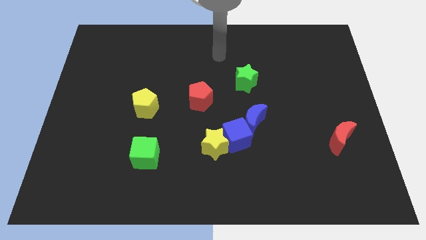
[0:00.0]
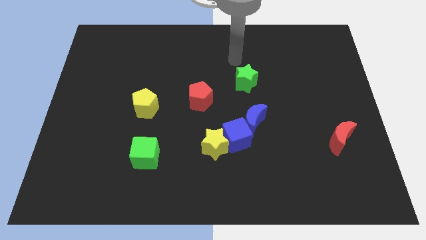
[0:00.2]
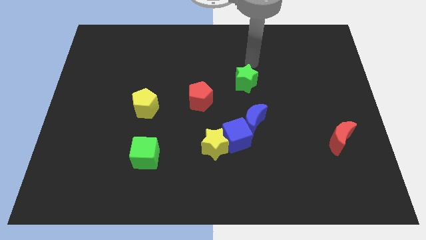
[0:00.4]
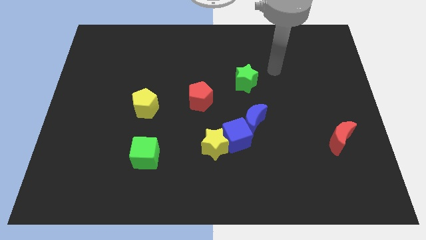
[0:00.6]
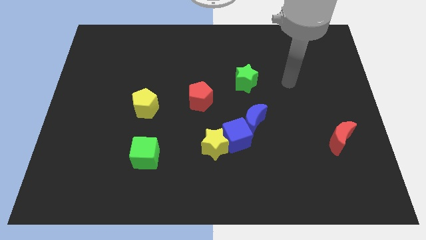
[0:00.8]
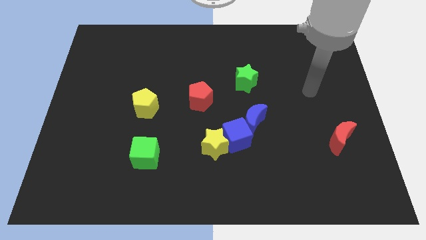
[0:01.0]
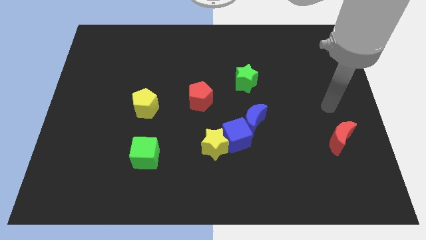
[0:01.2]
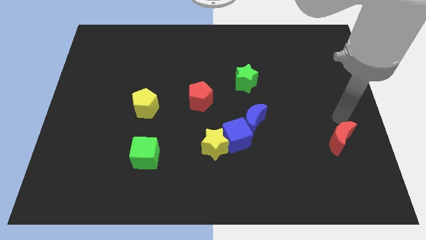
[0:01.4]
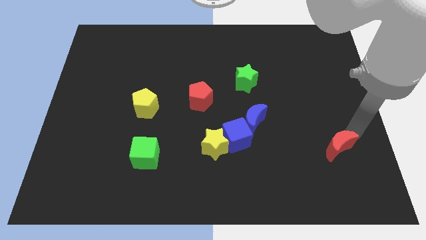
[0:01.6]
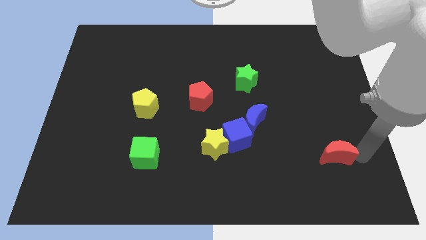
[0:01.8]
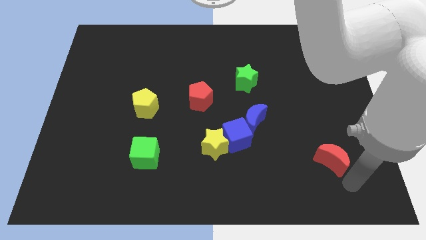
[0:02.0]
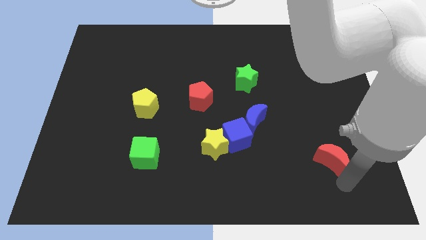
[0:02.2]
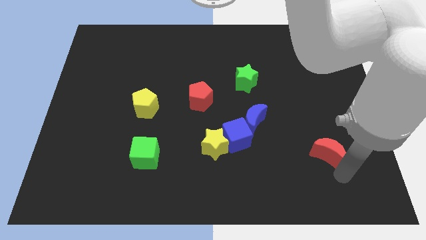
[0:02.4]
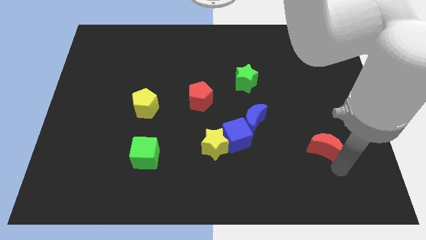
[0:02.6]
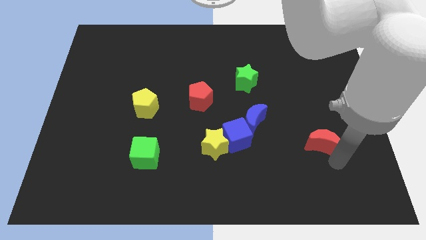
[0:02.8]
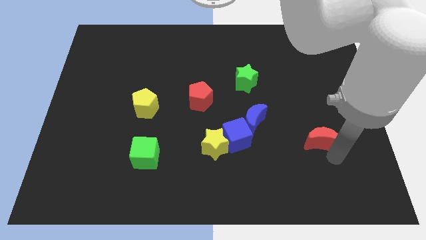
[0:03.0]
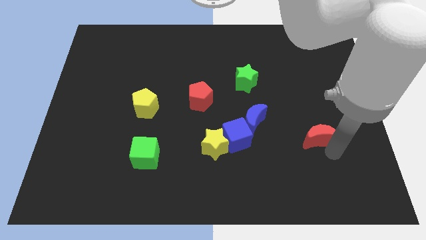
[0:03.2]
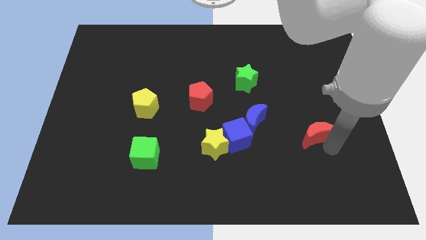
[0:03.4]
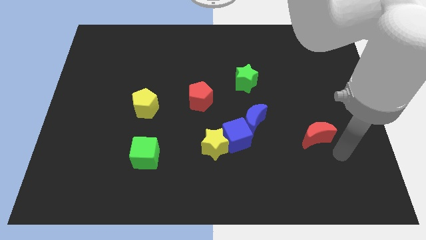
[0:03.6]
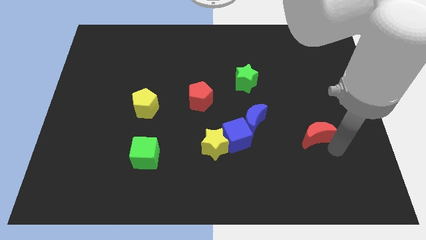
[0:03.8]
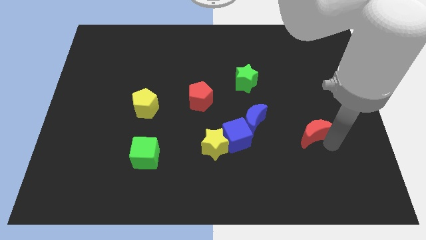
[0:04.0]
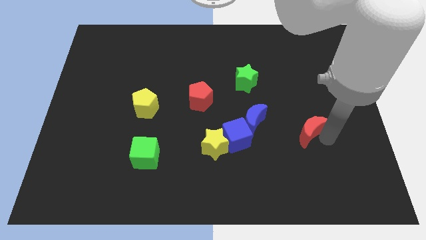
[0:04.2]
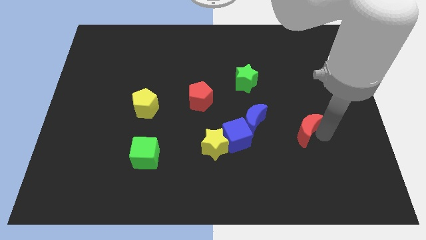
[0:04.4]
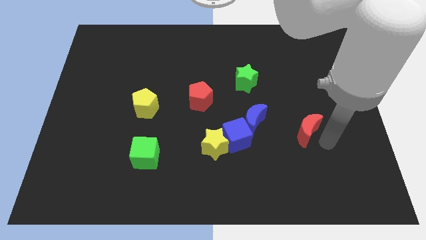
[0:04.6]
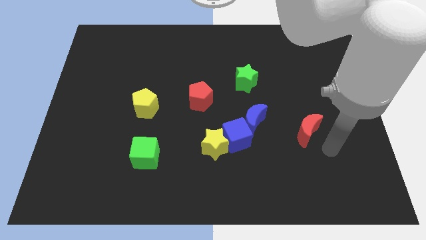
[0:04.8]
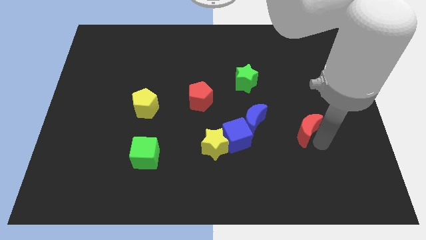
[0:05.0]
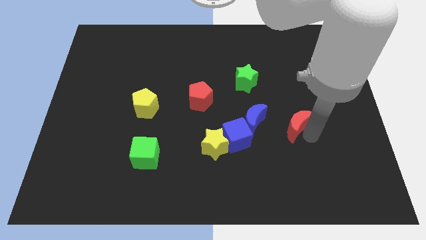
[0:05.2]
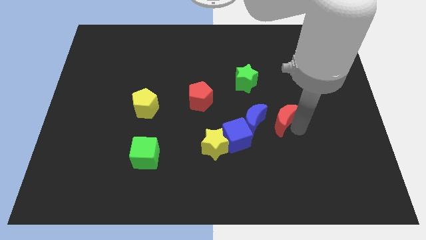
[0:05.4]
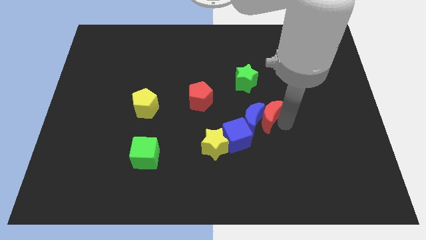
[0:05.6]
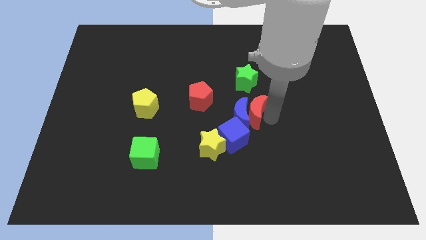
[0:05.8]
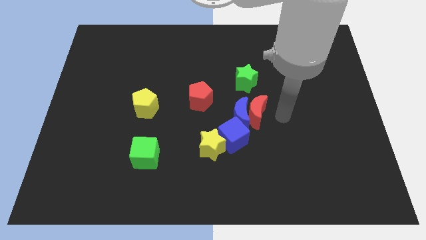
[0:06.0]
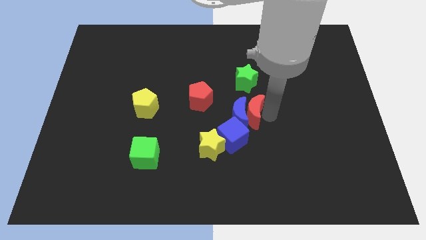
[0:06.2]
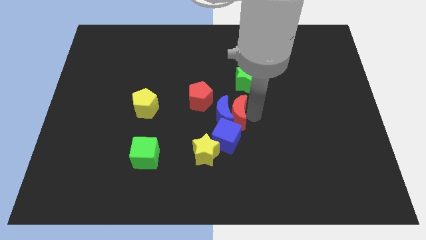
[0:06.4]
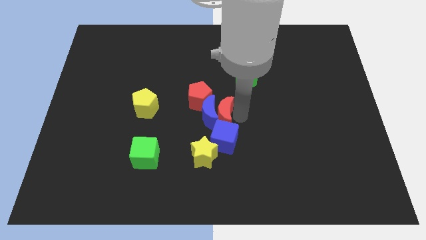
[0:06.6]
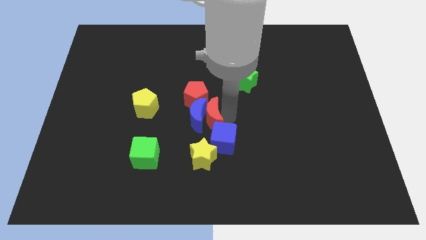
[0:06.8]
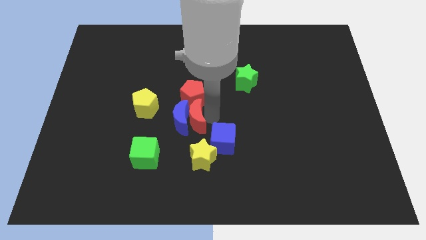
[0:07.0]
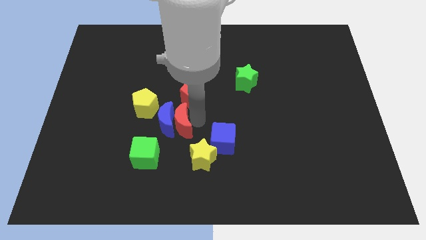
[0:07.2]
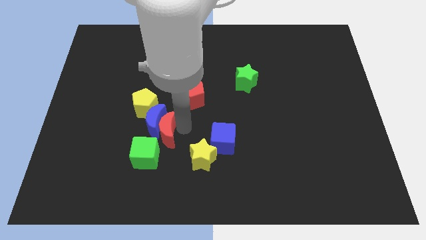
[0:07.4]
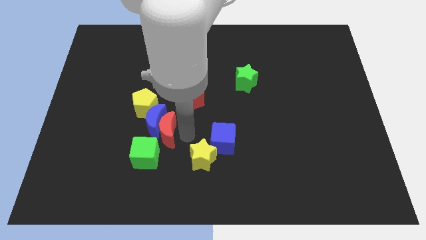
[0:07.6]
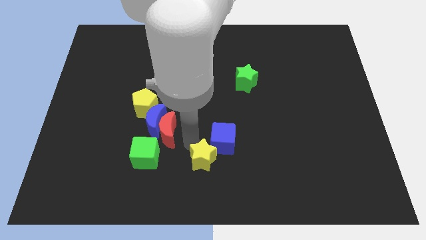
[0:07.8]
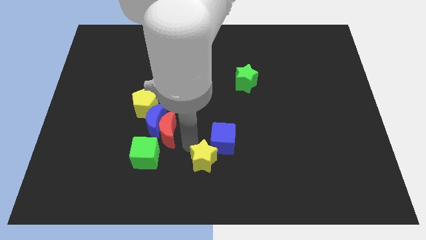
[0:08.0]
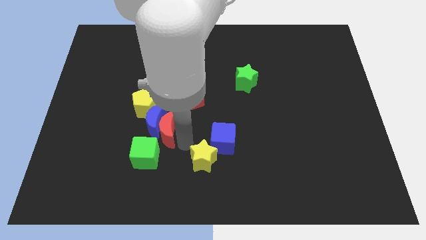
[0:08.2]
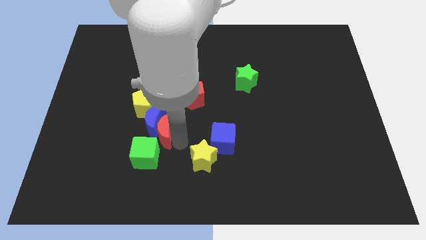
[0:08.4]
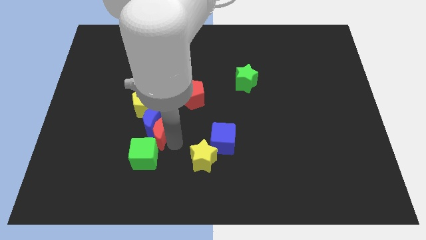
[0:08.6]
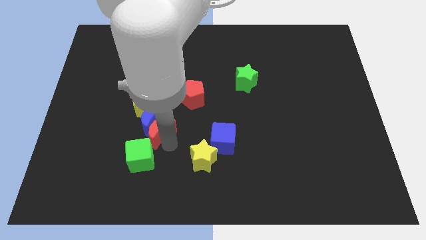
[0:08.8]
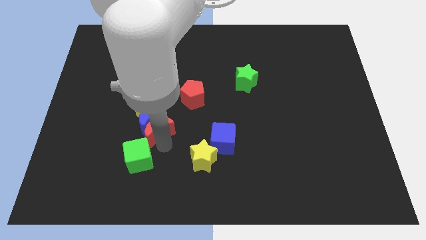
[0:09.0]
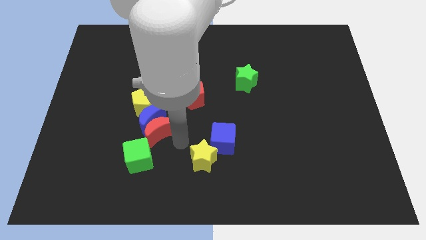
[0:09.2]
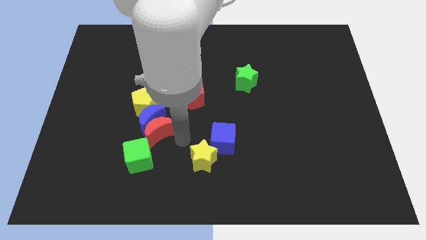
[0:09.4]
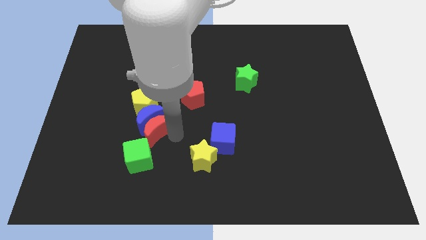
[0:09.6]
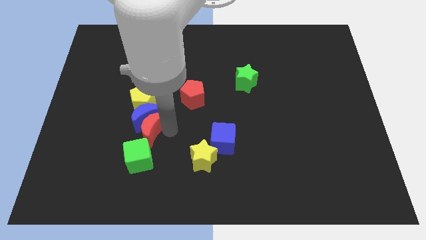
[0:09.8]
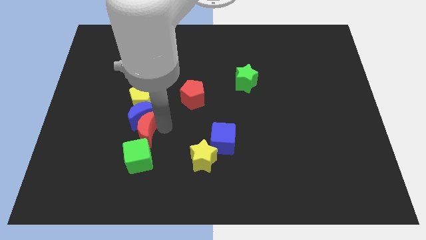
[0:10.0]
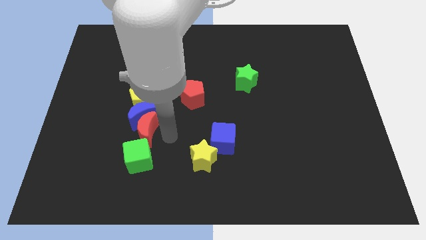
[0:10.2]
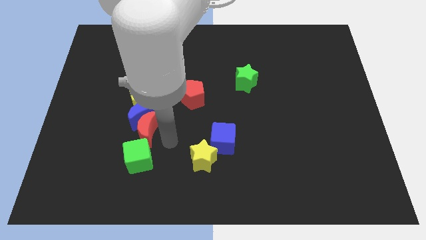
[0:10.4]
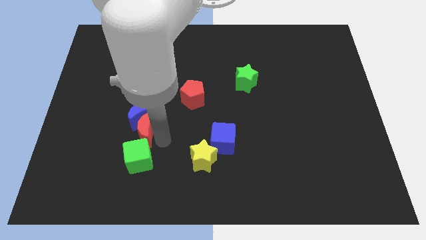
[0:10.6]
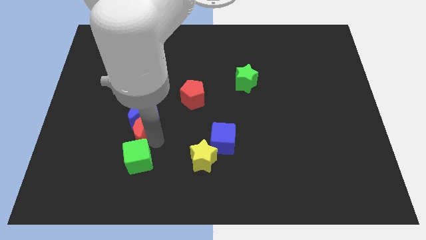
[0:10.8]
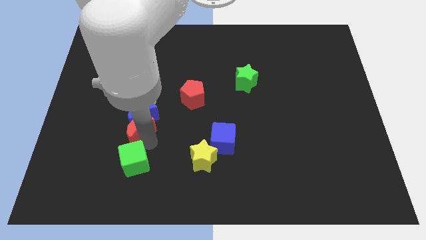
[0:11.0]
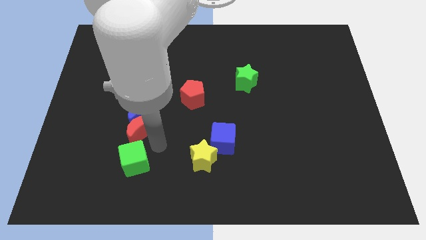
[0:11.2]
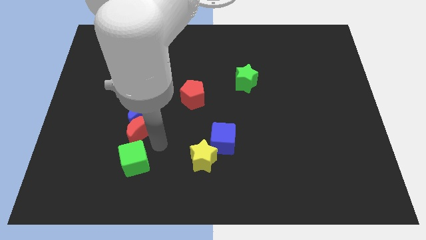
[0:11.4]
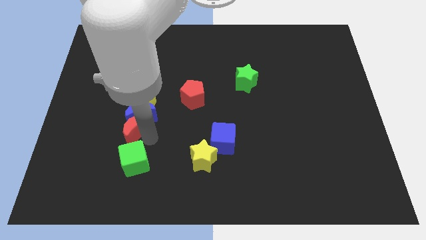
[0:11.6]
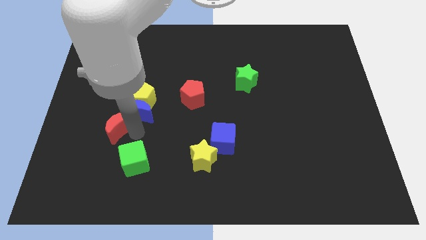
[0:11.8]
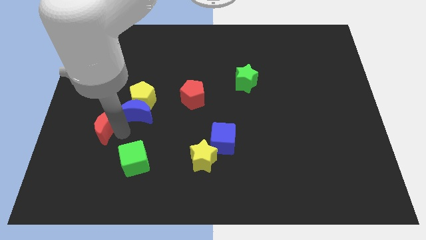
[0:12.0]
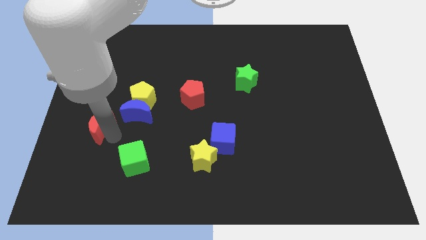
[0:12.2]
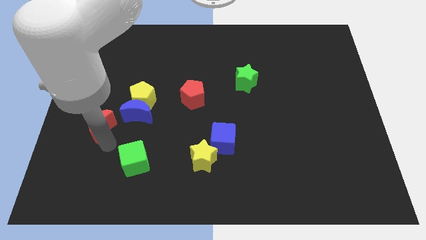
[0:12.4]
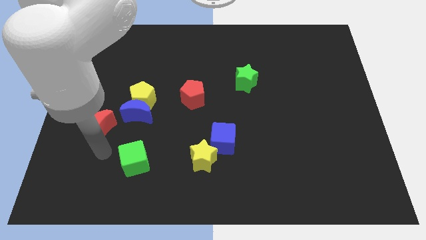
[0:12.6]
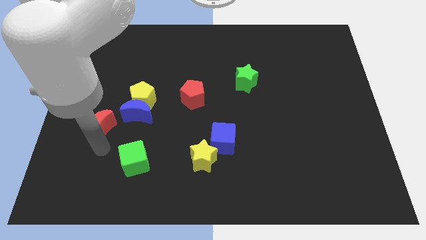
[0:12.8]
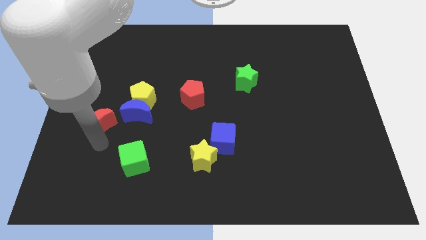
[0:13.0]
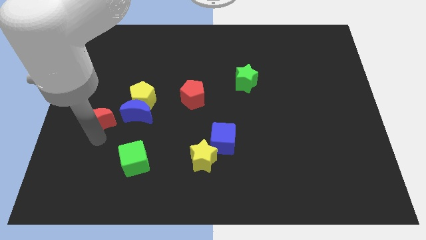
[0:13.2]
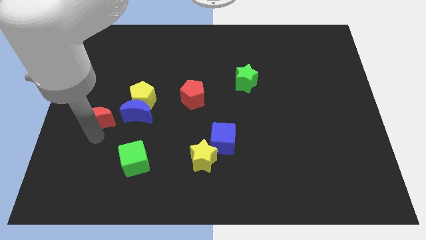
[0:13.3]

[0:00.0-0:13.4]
push the red moon to the center left
